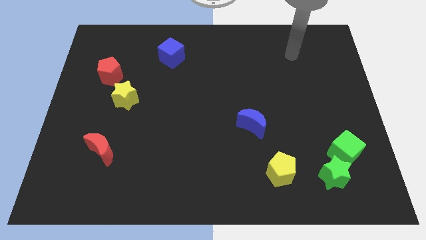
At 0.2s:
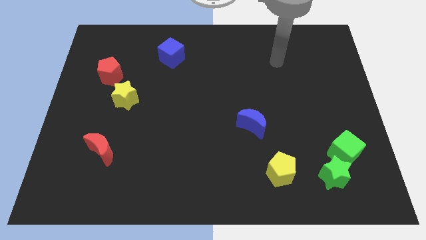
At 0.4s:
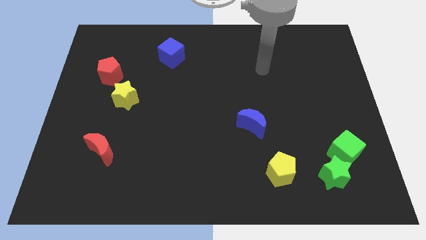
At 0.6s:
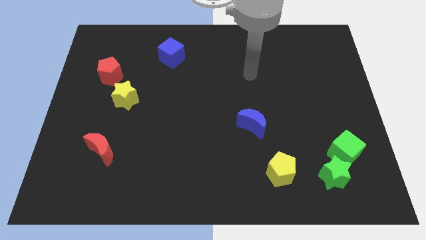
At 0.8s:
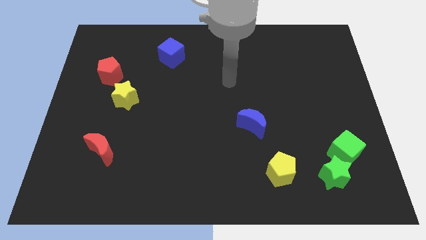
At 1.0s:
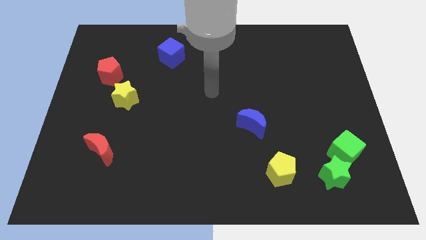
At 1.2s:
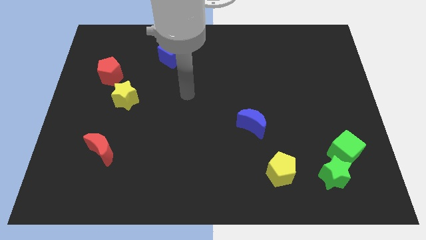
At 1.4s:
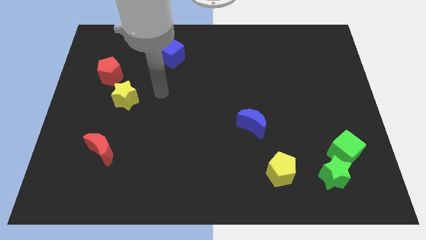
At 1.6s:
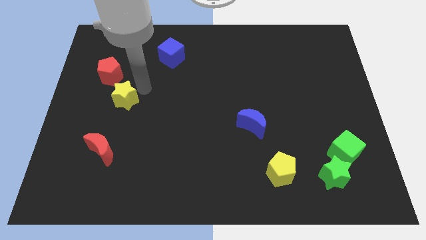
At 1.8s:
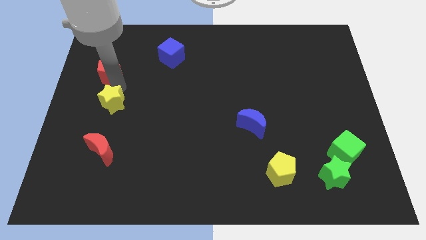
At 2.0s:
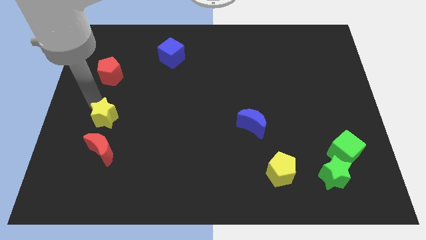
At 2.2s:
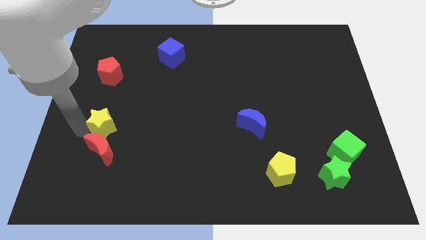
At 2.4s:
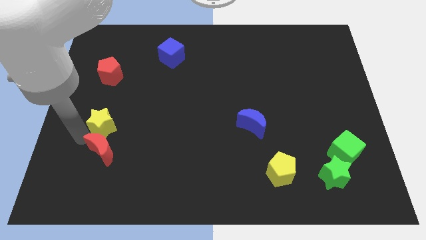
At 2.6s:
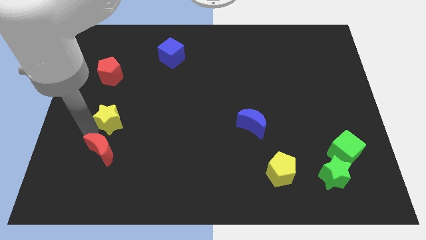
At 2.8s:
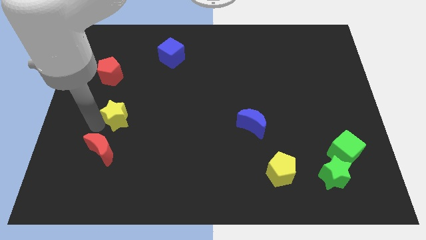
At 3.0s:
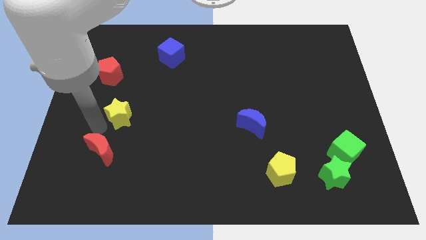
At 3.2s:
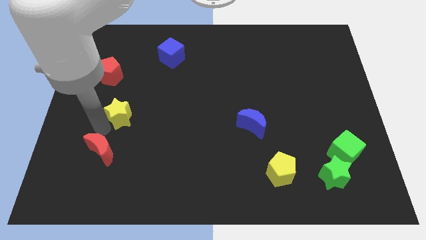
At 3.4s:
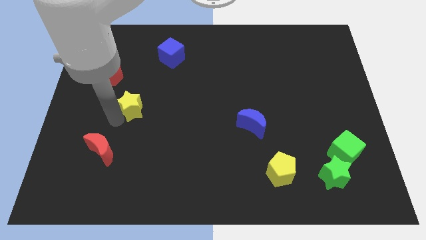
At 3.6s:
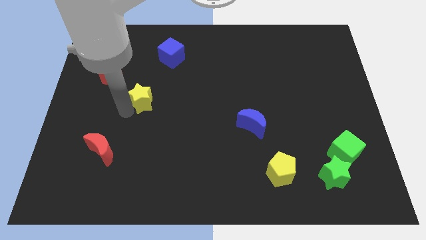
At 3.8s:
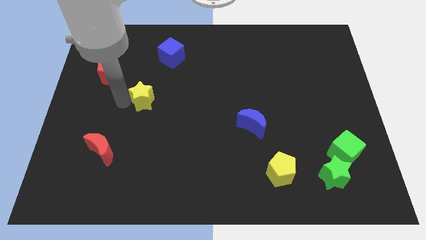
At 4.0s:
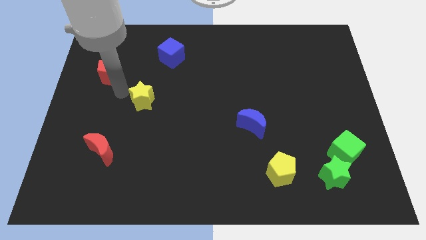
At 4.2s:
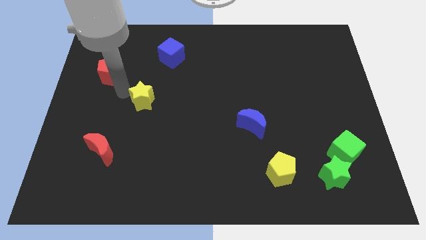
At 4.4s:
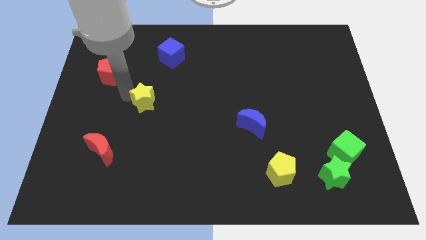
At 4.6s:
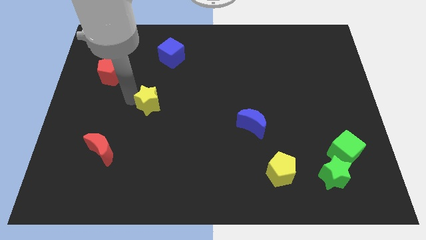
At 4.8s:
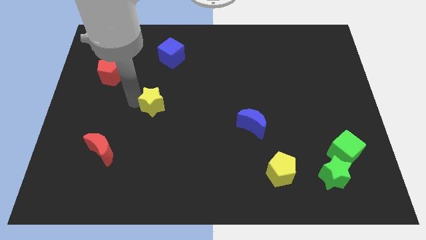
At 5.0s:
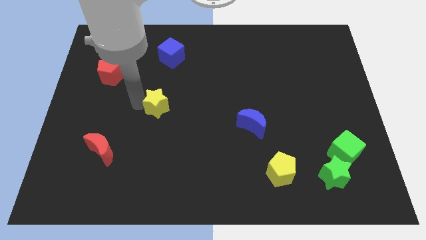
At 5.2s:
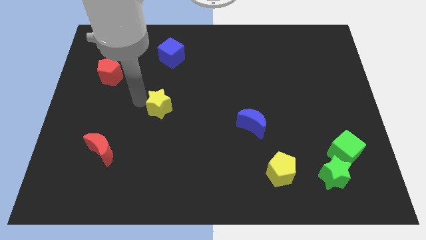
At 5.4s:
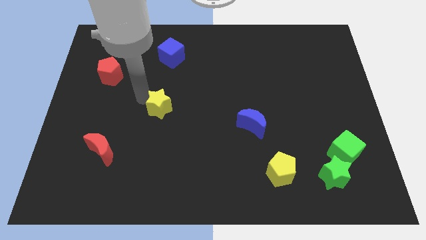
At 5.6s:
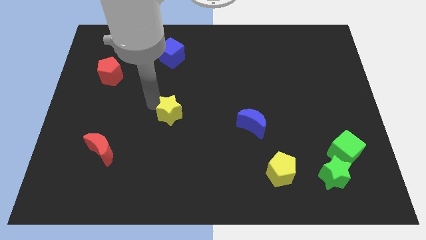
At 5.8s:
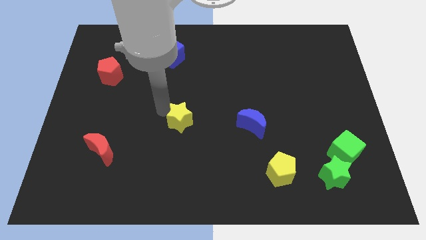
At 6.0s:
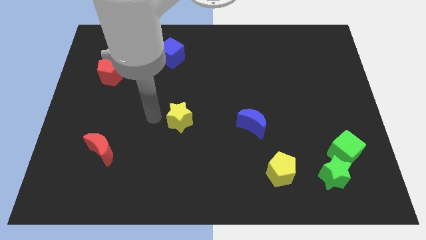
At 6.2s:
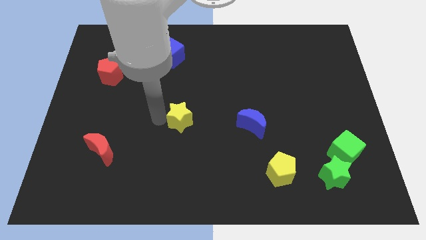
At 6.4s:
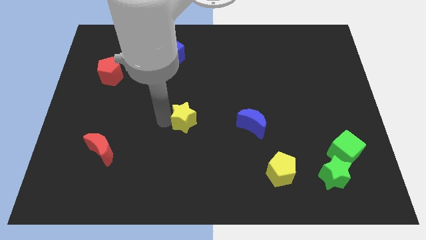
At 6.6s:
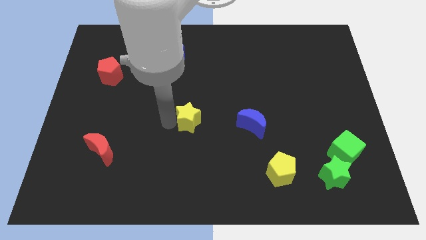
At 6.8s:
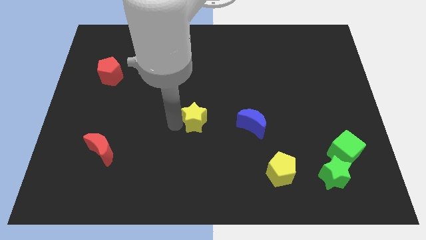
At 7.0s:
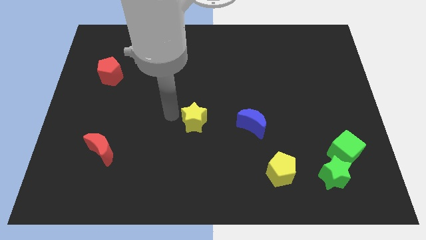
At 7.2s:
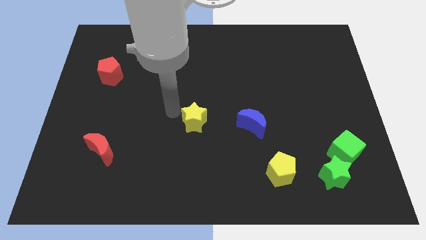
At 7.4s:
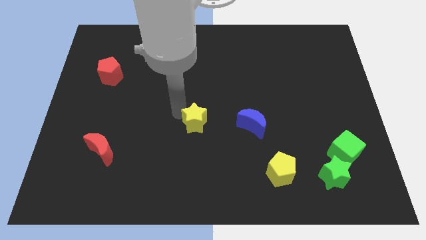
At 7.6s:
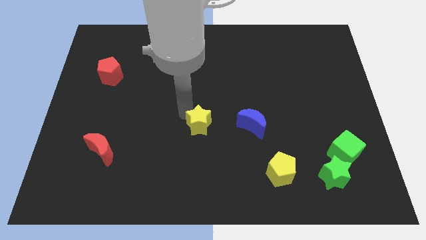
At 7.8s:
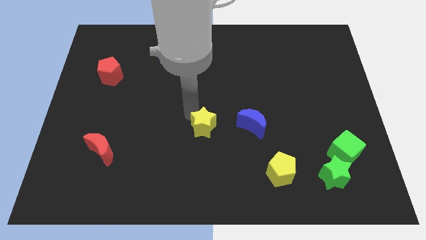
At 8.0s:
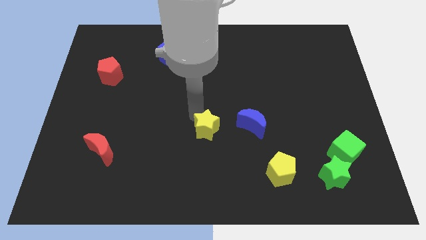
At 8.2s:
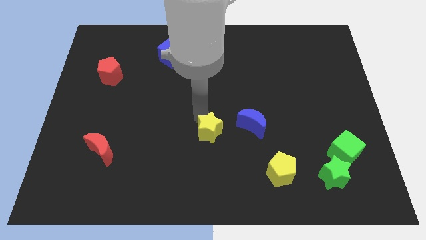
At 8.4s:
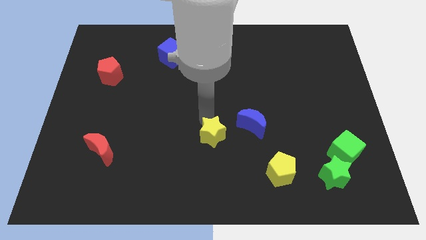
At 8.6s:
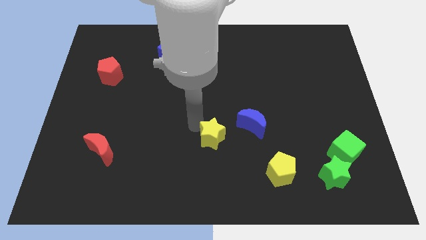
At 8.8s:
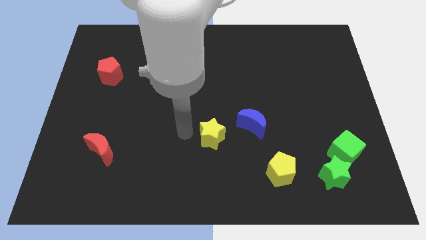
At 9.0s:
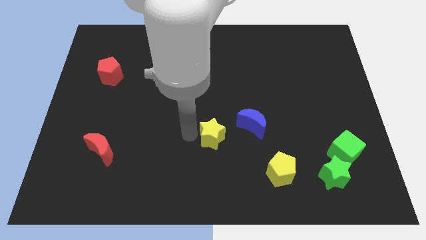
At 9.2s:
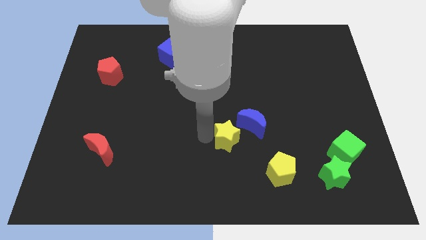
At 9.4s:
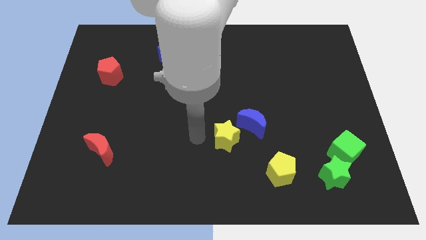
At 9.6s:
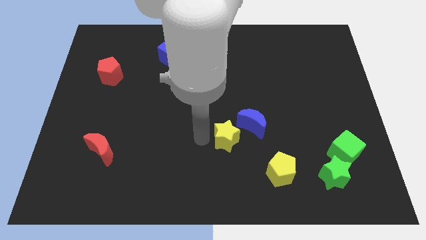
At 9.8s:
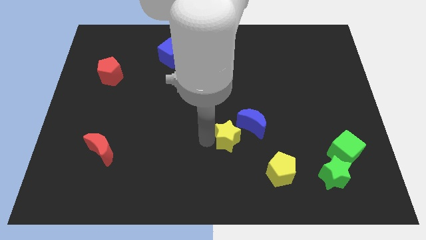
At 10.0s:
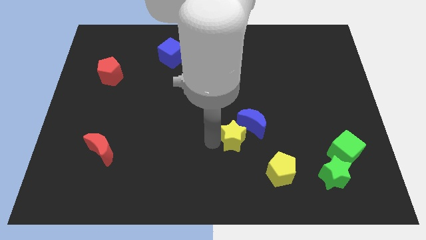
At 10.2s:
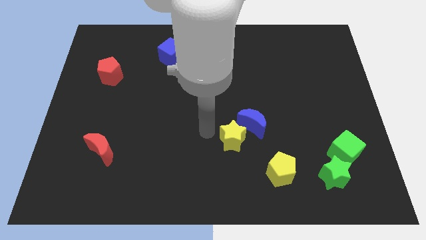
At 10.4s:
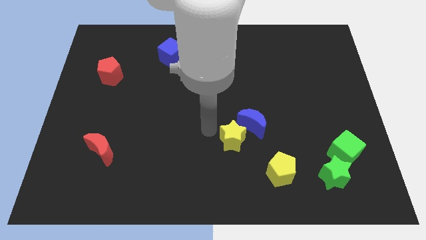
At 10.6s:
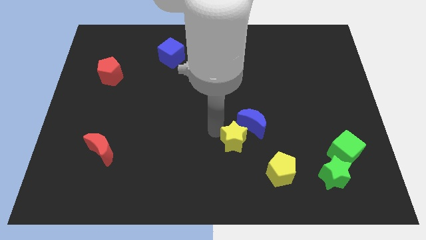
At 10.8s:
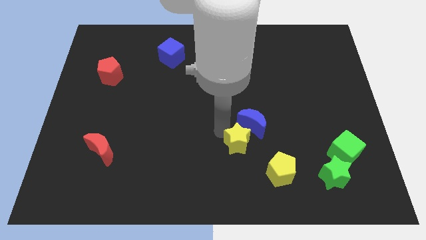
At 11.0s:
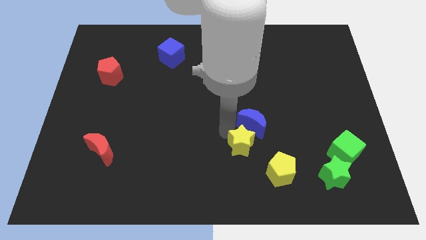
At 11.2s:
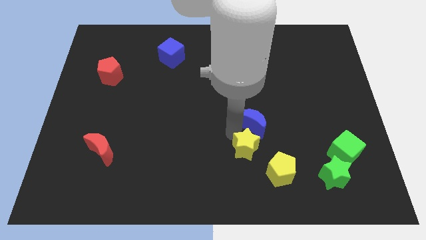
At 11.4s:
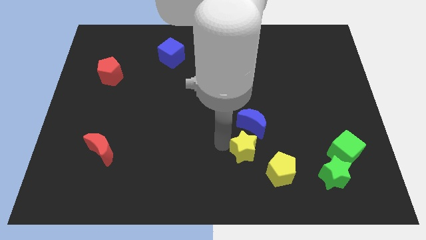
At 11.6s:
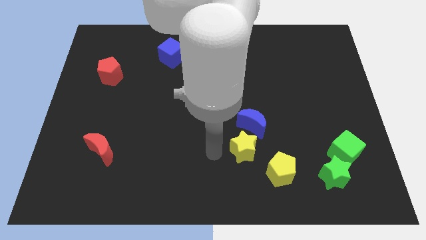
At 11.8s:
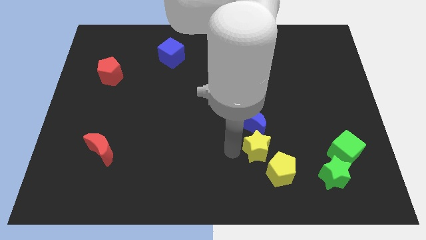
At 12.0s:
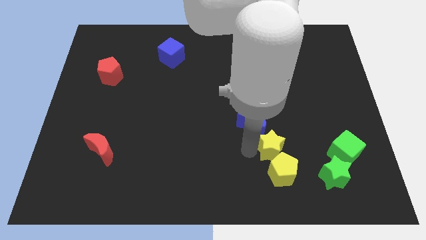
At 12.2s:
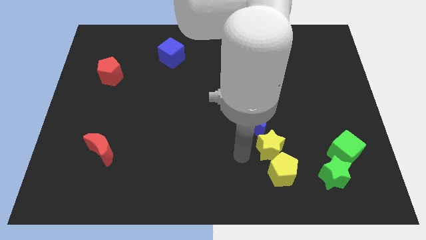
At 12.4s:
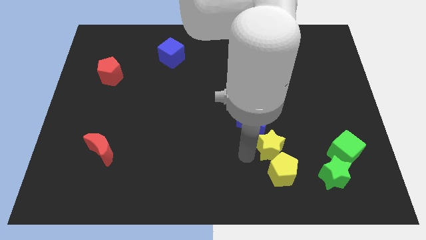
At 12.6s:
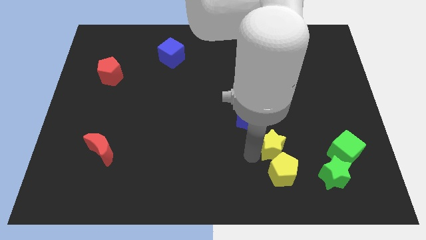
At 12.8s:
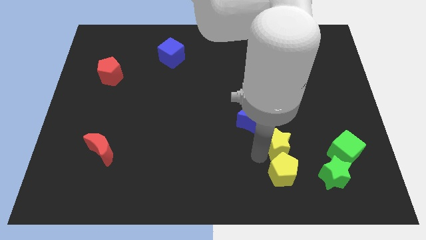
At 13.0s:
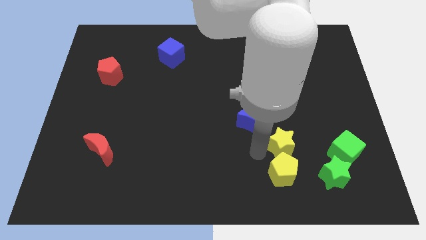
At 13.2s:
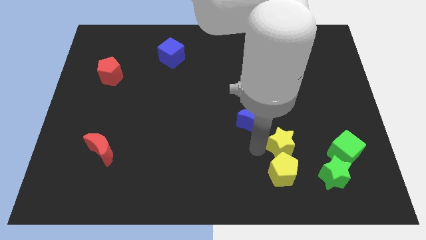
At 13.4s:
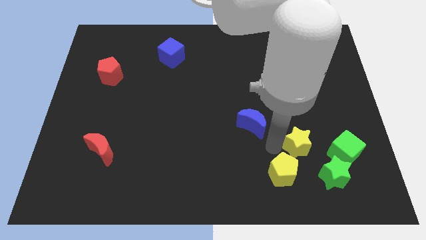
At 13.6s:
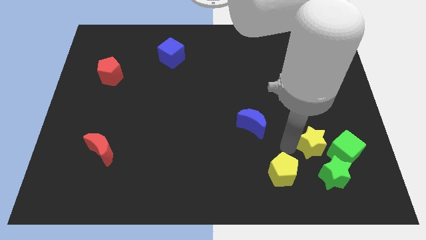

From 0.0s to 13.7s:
put the yellow star above the green star
